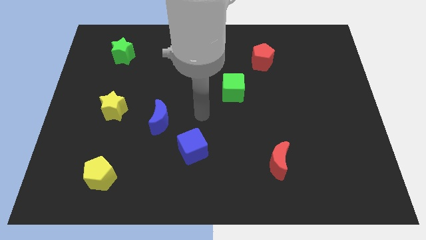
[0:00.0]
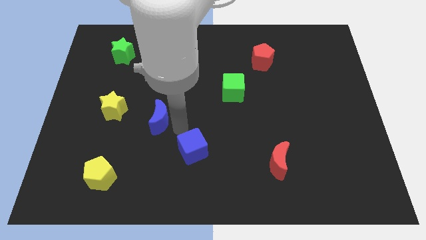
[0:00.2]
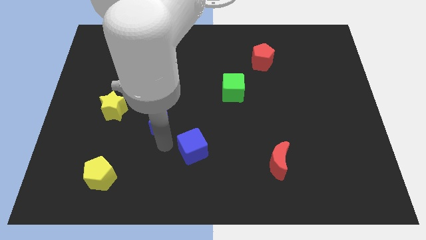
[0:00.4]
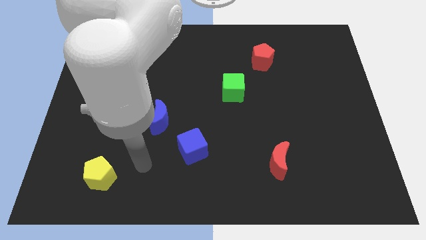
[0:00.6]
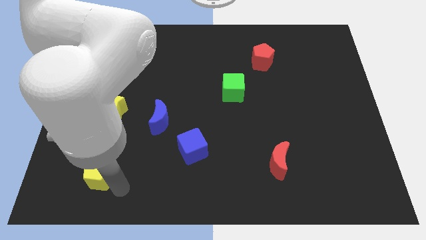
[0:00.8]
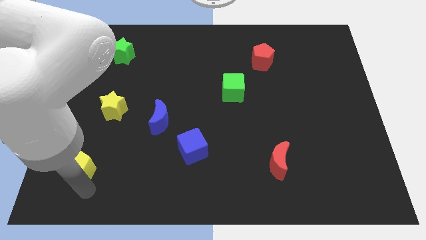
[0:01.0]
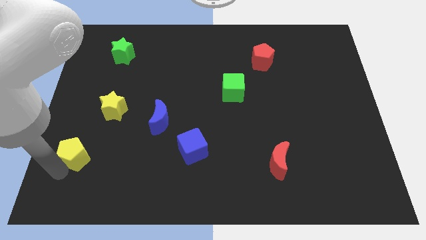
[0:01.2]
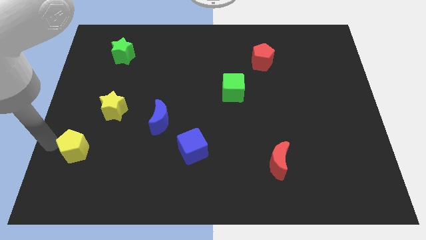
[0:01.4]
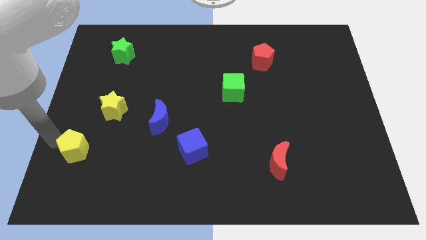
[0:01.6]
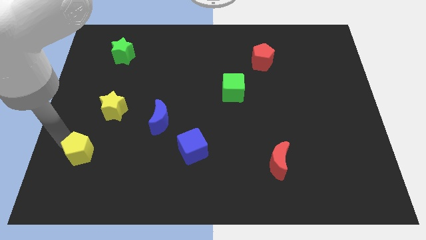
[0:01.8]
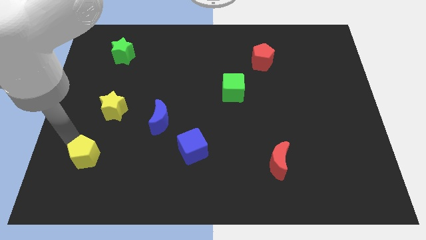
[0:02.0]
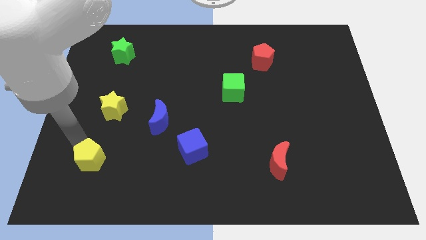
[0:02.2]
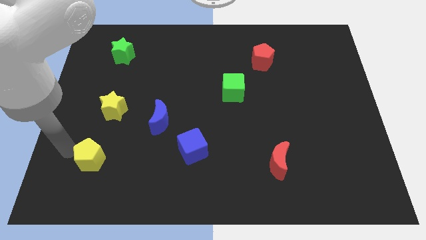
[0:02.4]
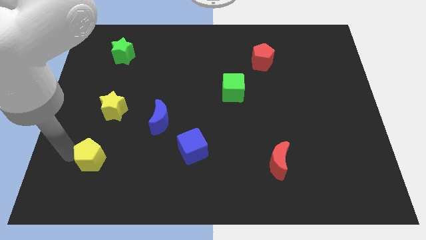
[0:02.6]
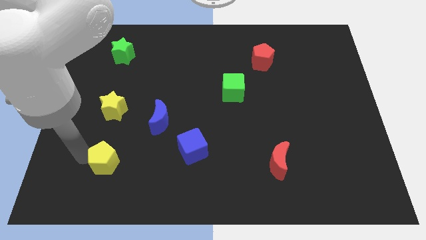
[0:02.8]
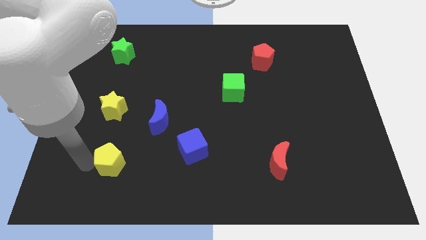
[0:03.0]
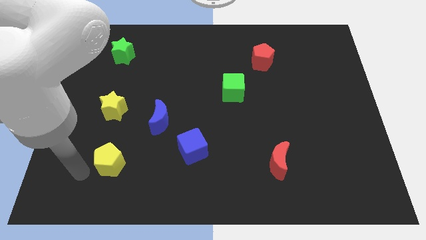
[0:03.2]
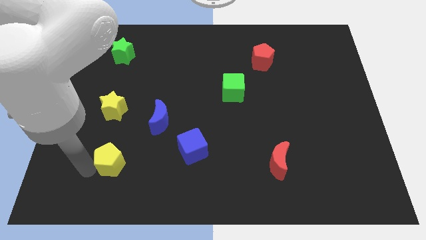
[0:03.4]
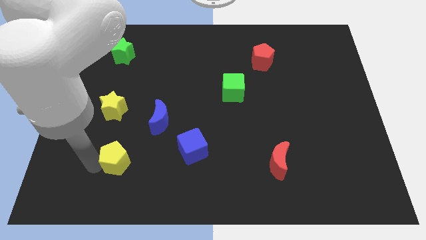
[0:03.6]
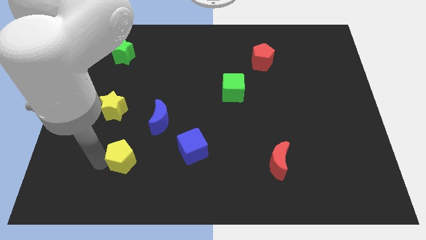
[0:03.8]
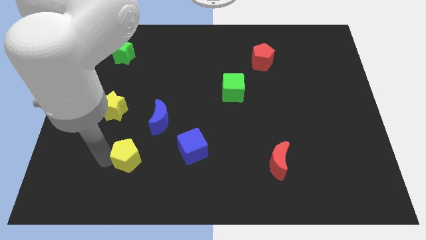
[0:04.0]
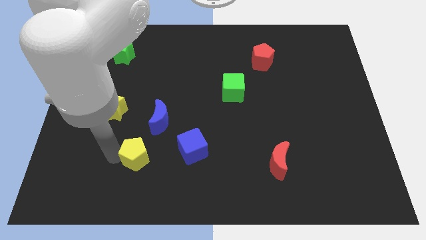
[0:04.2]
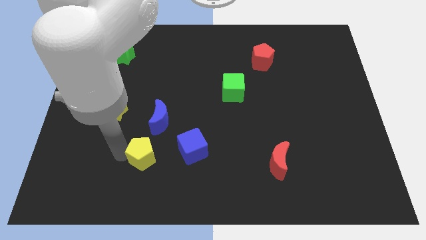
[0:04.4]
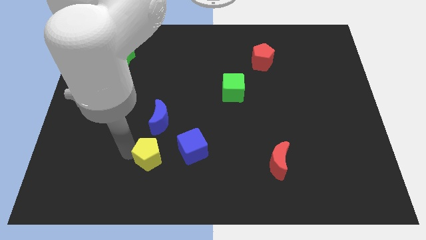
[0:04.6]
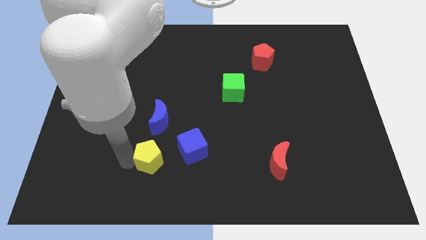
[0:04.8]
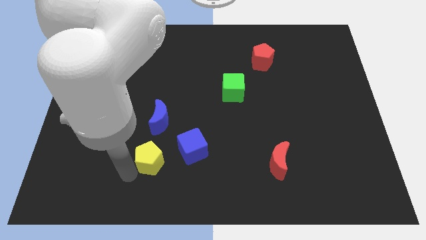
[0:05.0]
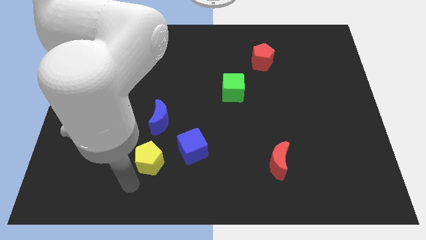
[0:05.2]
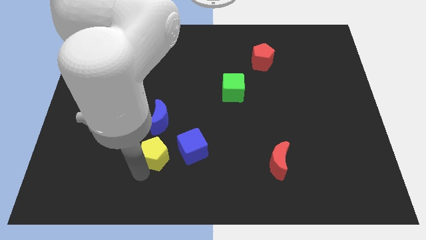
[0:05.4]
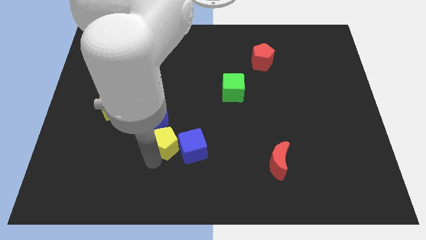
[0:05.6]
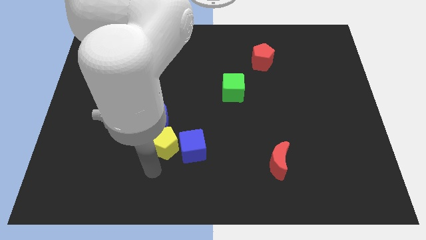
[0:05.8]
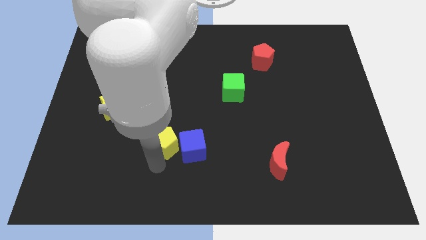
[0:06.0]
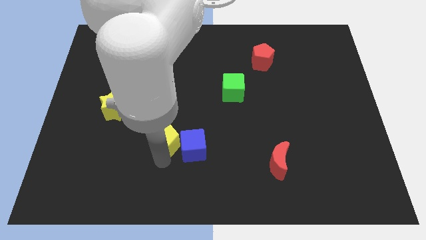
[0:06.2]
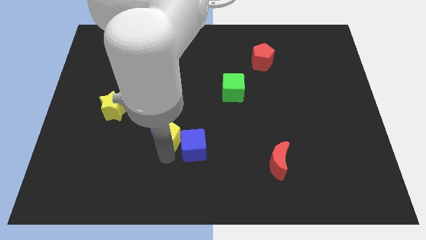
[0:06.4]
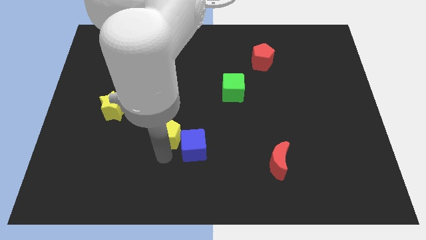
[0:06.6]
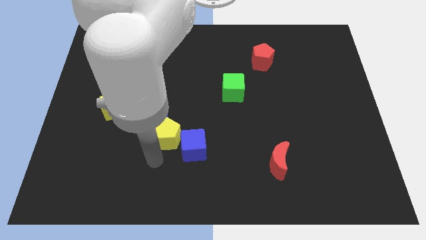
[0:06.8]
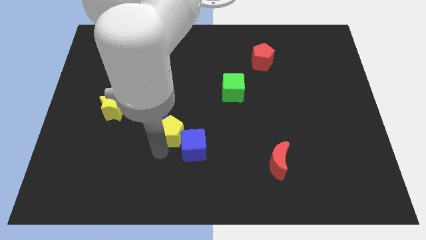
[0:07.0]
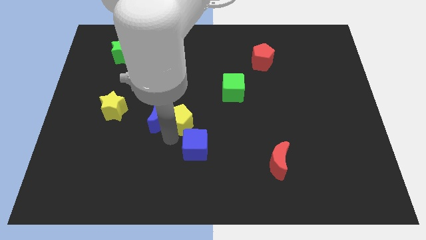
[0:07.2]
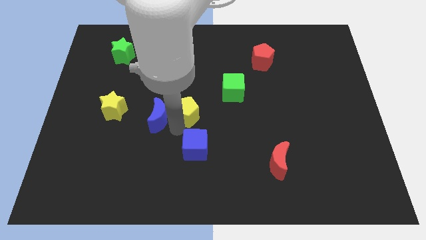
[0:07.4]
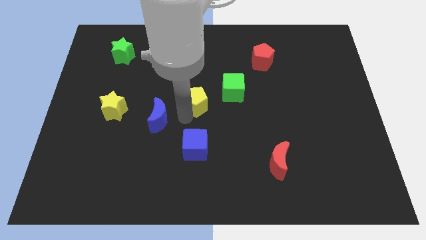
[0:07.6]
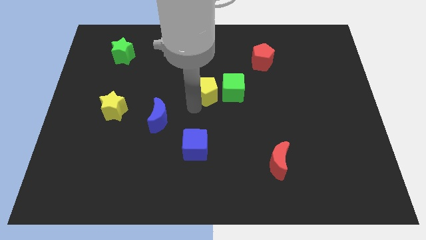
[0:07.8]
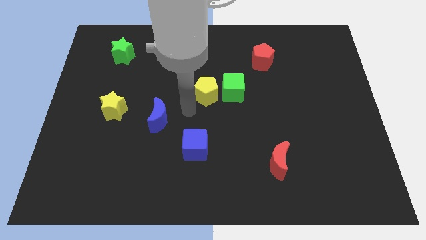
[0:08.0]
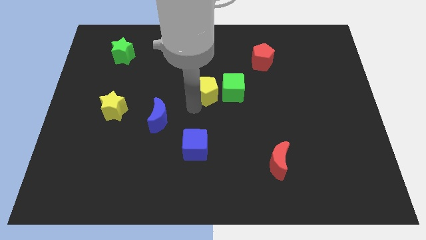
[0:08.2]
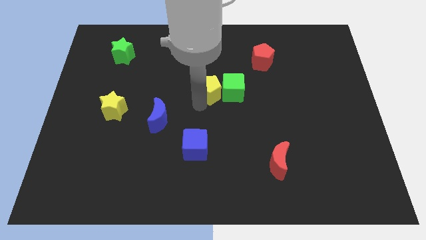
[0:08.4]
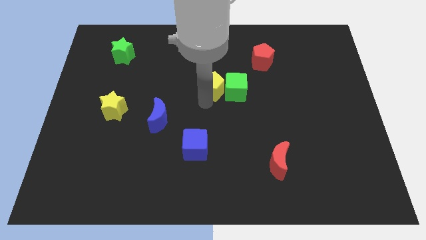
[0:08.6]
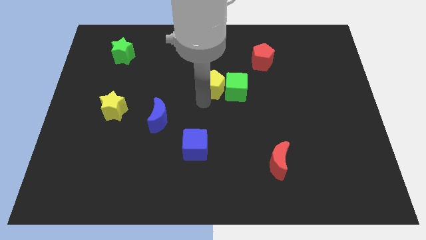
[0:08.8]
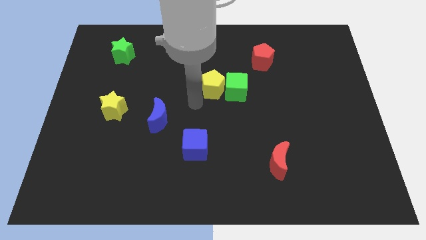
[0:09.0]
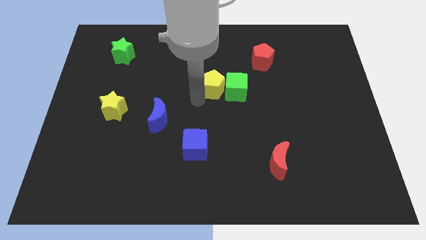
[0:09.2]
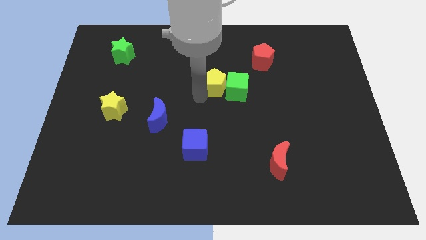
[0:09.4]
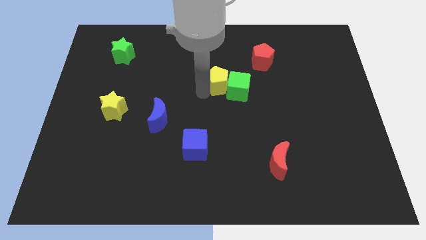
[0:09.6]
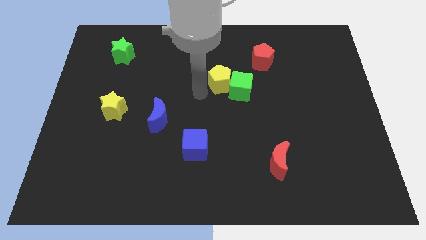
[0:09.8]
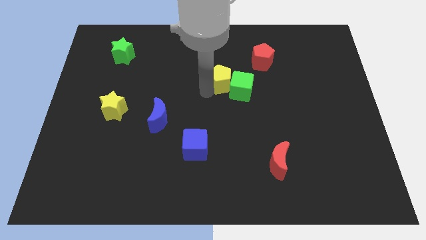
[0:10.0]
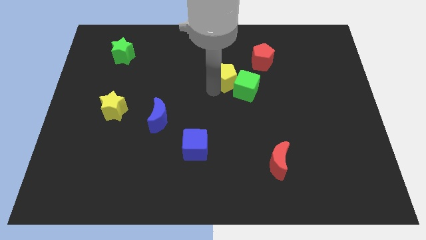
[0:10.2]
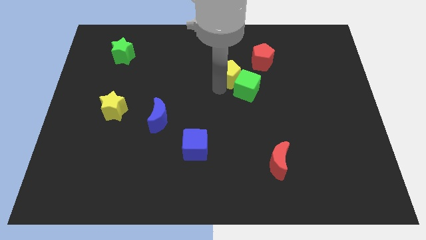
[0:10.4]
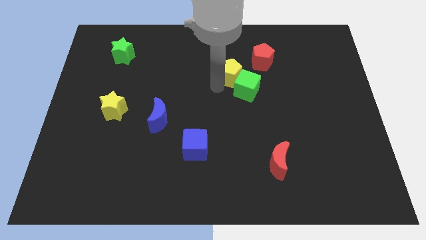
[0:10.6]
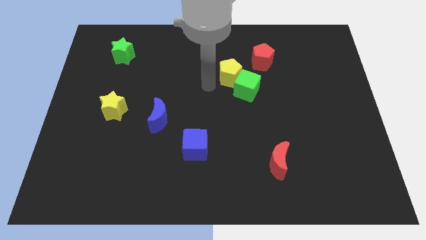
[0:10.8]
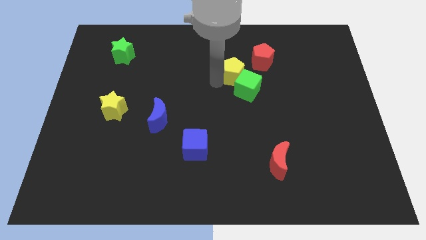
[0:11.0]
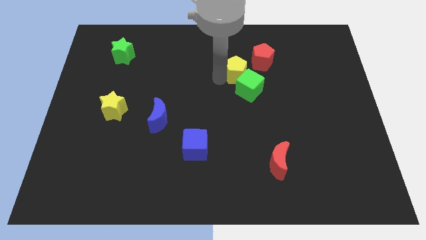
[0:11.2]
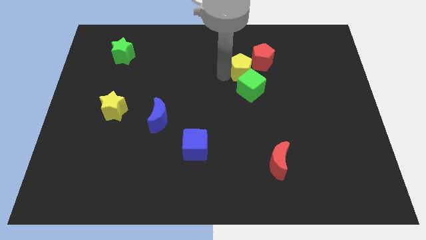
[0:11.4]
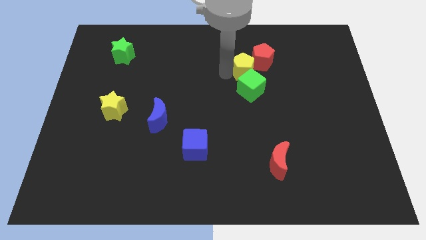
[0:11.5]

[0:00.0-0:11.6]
put the yellow pentagon next to the red pentagon

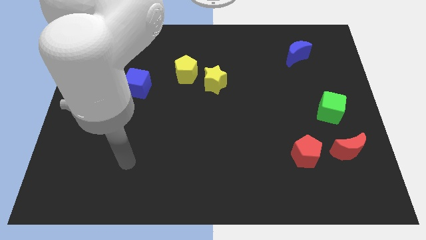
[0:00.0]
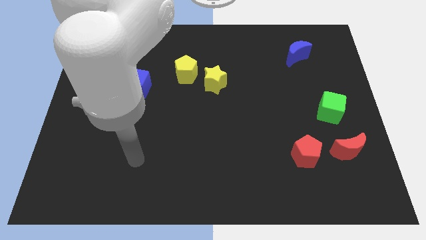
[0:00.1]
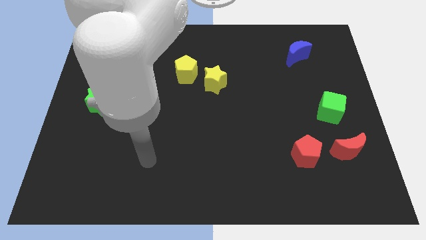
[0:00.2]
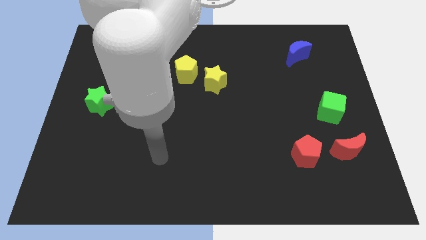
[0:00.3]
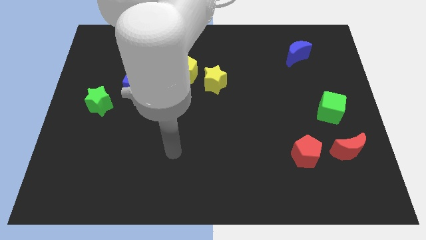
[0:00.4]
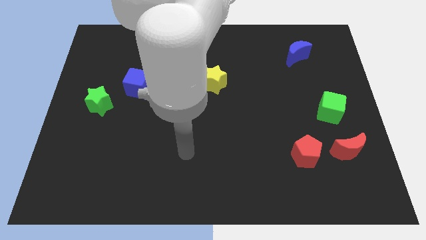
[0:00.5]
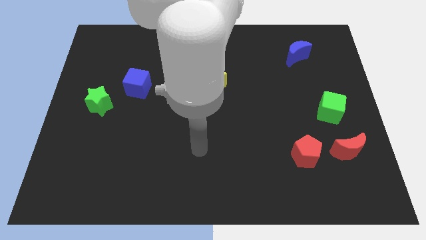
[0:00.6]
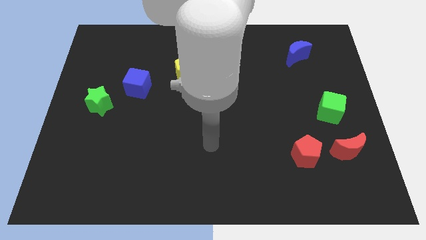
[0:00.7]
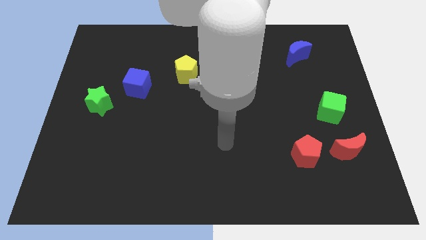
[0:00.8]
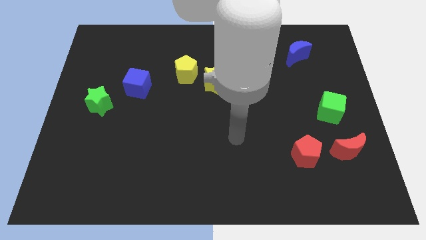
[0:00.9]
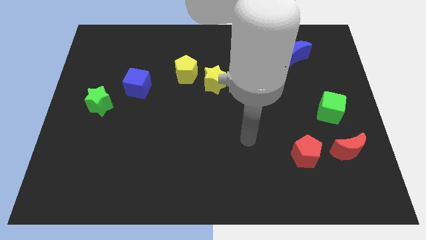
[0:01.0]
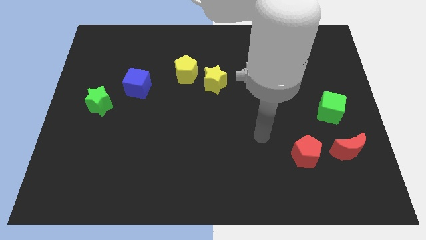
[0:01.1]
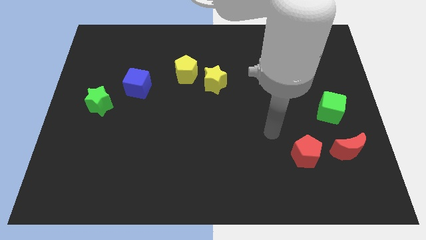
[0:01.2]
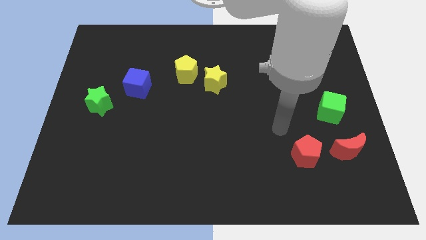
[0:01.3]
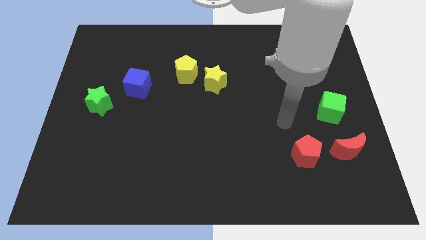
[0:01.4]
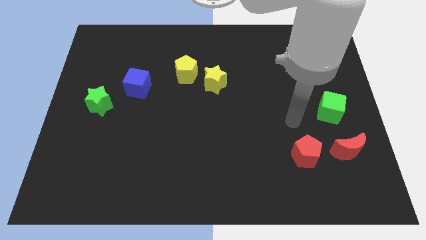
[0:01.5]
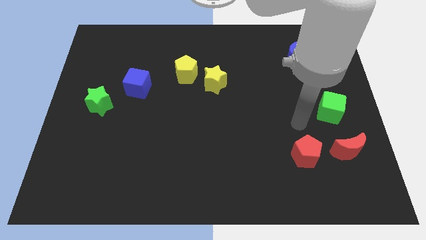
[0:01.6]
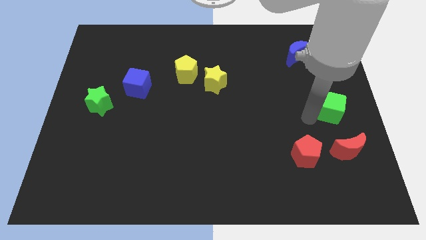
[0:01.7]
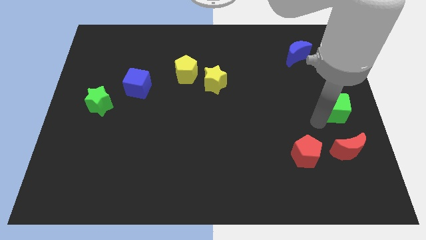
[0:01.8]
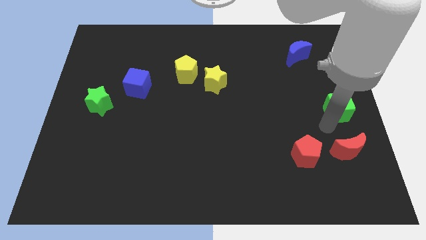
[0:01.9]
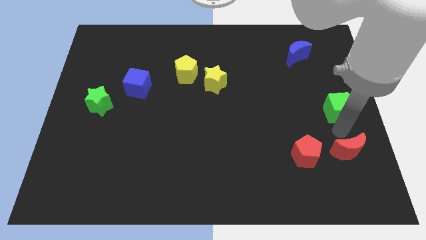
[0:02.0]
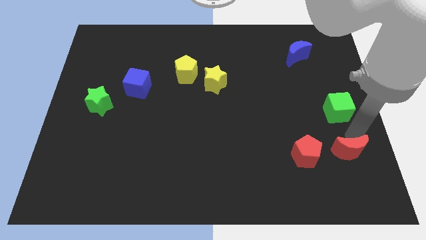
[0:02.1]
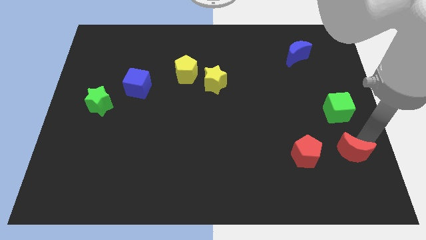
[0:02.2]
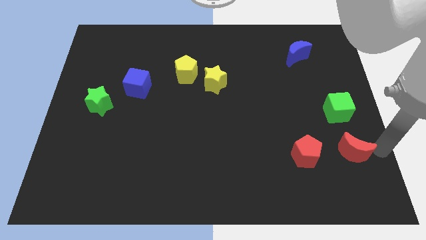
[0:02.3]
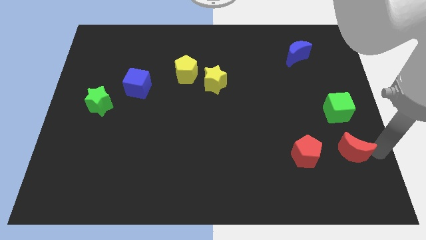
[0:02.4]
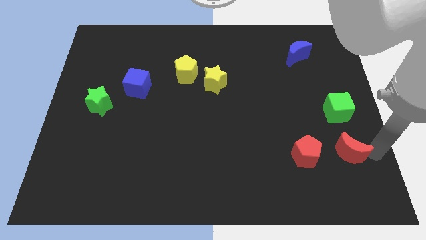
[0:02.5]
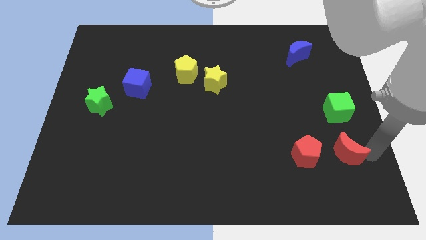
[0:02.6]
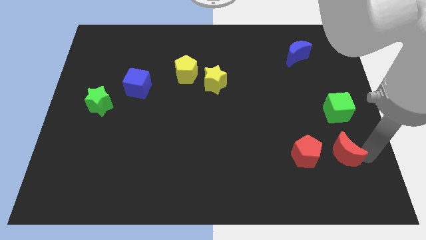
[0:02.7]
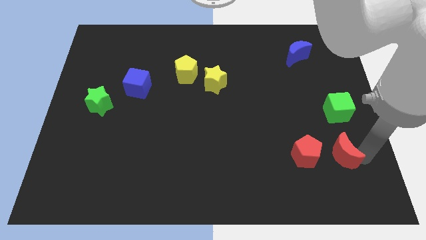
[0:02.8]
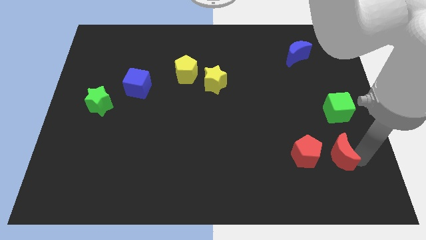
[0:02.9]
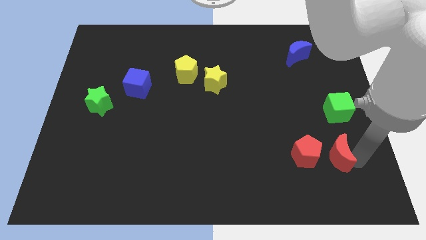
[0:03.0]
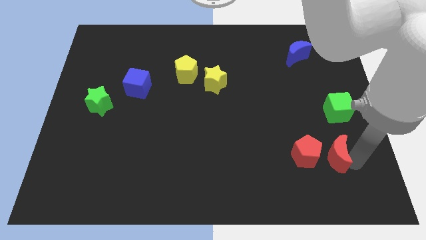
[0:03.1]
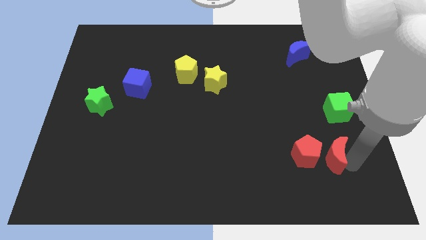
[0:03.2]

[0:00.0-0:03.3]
slide the red moon to the red pentagon
